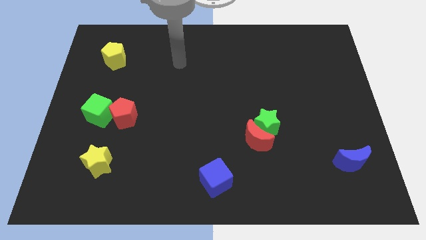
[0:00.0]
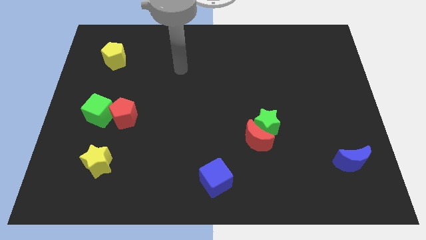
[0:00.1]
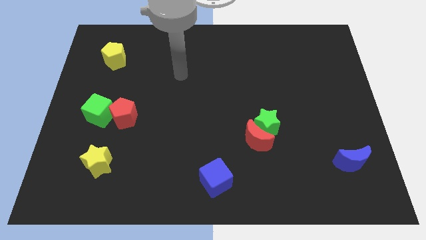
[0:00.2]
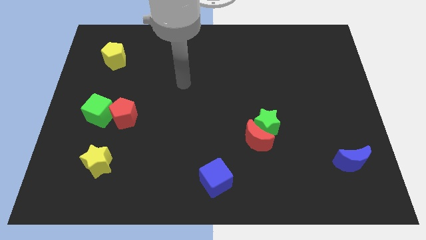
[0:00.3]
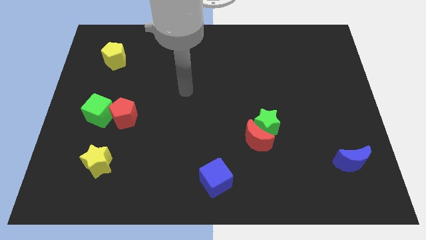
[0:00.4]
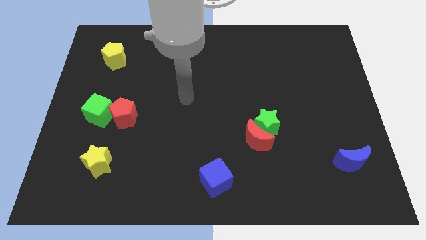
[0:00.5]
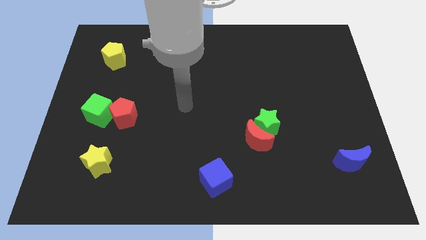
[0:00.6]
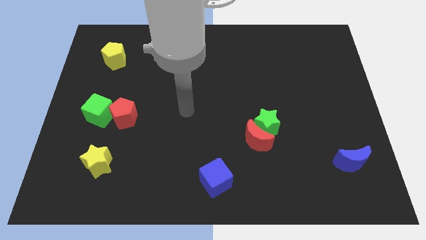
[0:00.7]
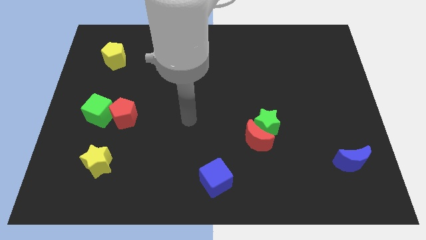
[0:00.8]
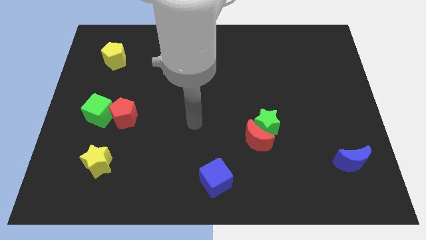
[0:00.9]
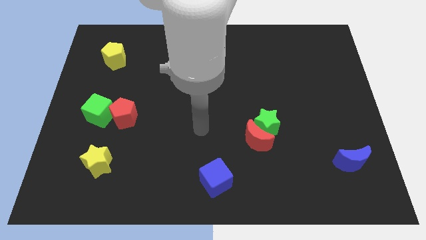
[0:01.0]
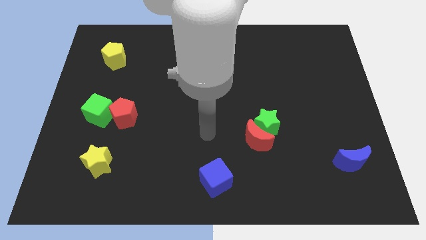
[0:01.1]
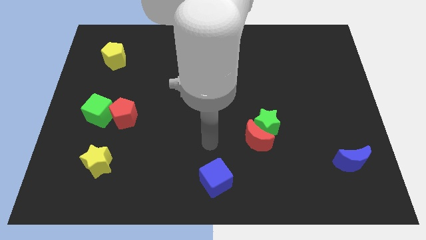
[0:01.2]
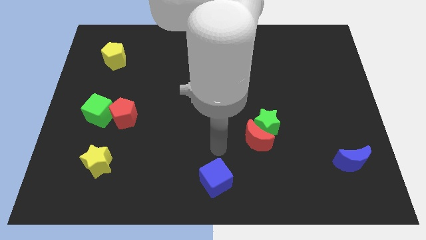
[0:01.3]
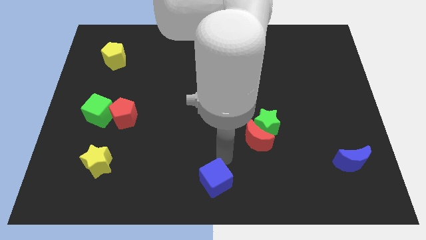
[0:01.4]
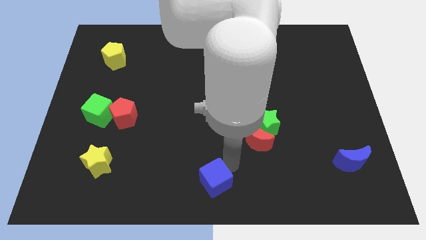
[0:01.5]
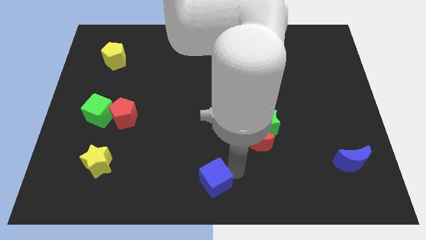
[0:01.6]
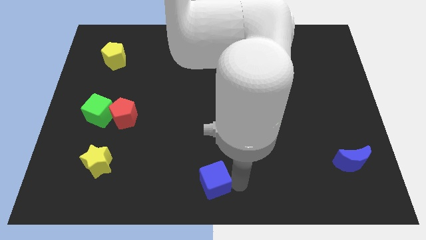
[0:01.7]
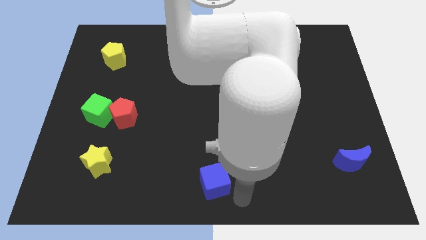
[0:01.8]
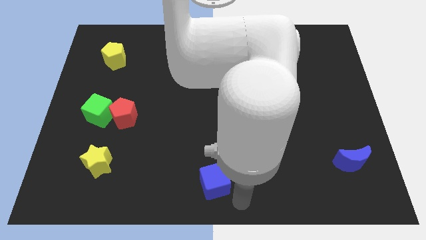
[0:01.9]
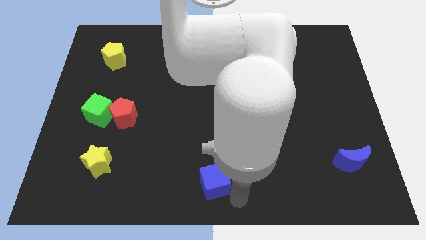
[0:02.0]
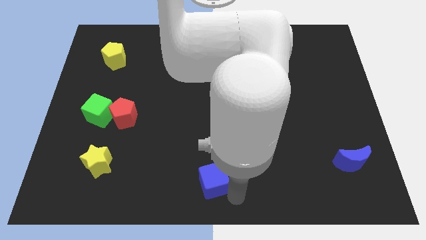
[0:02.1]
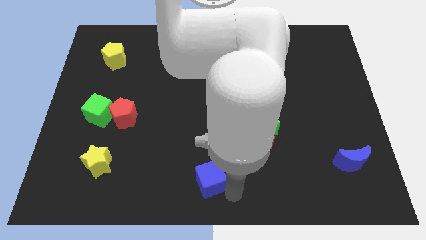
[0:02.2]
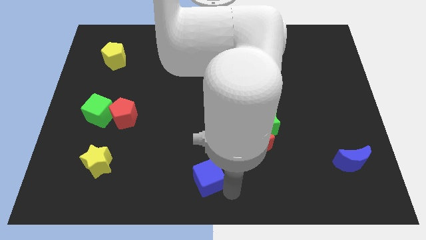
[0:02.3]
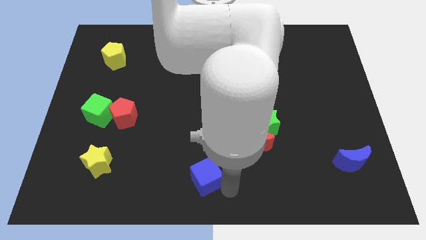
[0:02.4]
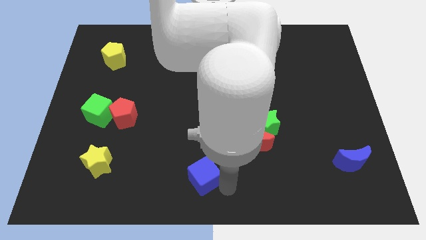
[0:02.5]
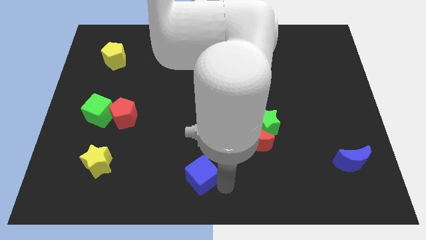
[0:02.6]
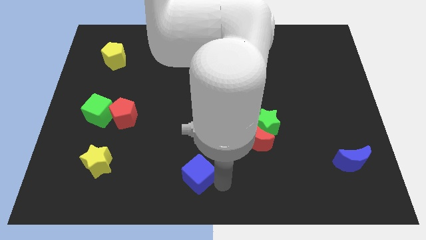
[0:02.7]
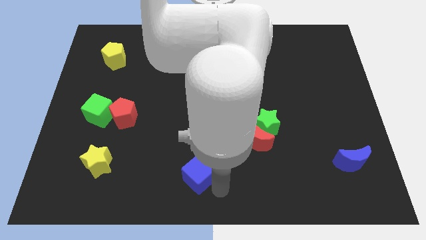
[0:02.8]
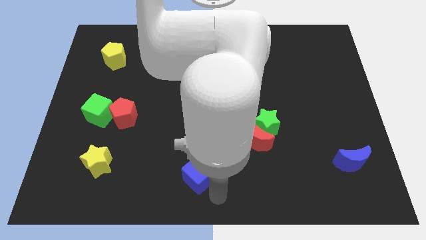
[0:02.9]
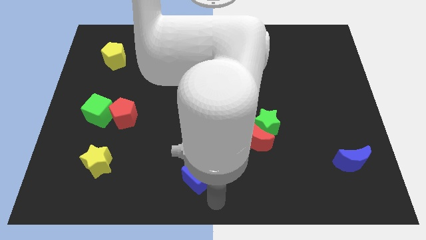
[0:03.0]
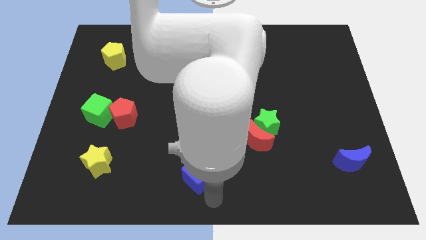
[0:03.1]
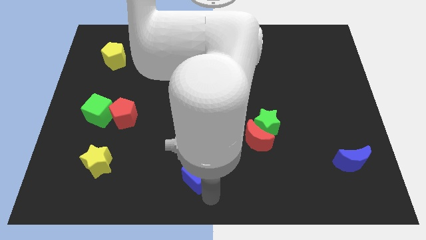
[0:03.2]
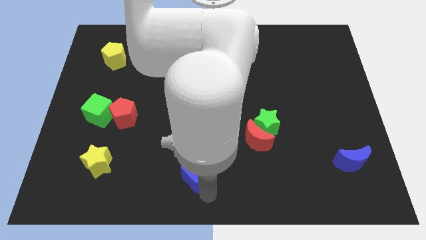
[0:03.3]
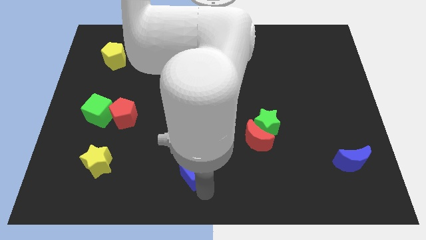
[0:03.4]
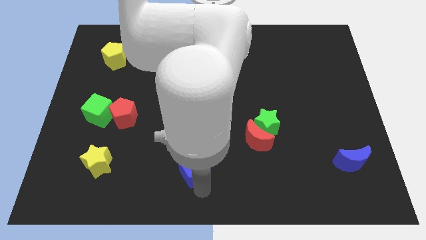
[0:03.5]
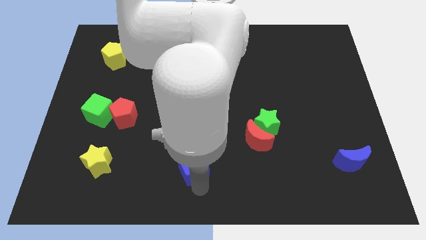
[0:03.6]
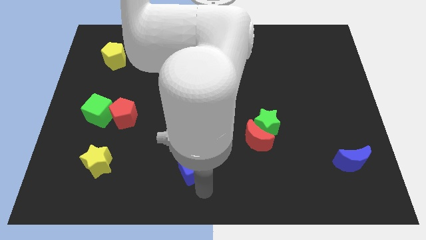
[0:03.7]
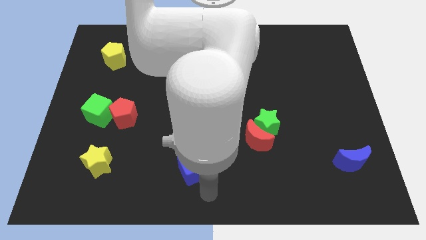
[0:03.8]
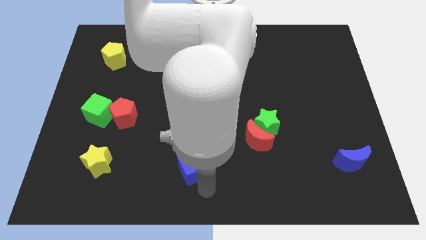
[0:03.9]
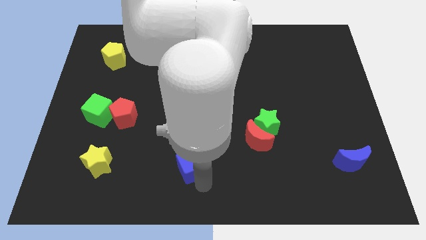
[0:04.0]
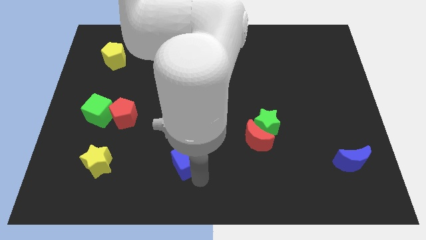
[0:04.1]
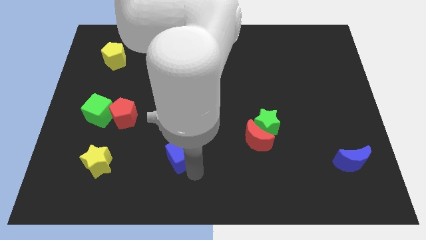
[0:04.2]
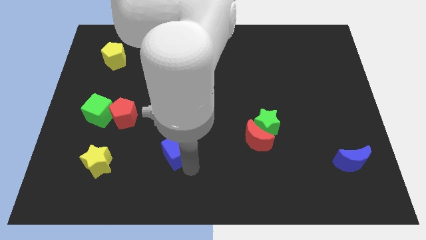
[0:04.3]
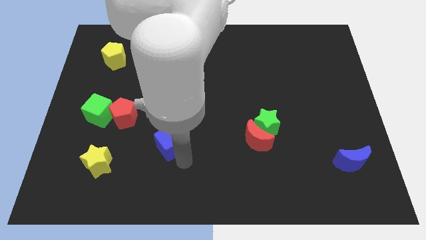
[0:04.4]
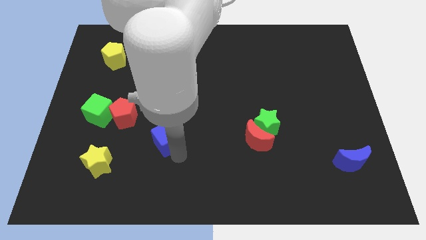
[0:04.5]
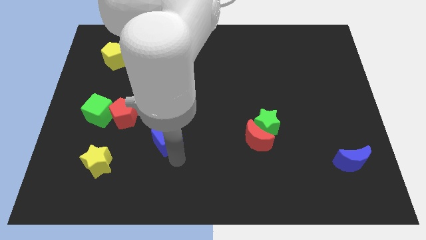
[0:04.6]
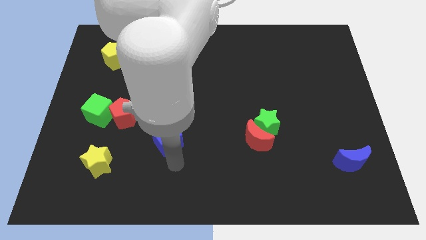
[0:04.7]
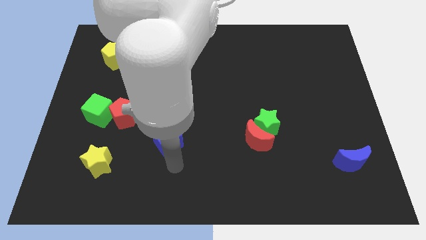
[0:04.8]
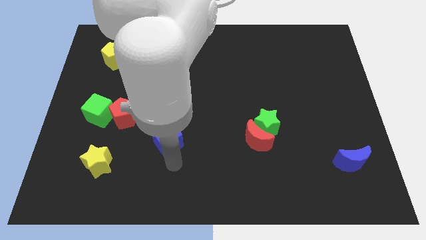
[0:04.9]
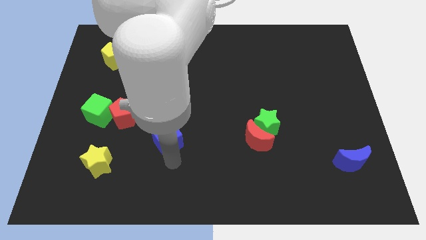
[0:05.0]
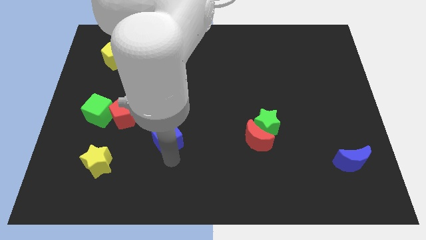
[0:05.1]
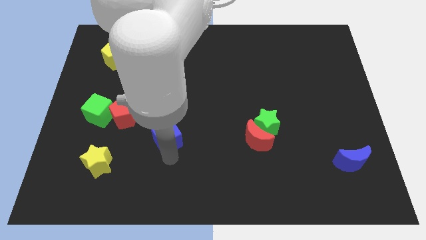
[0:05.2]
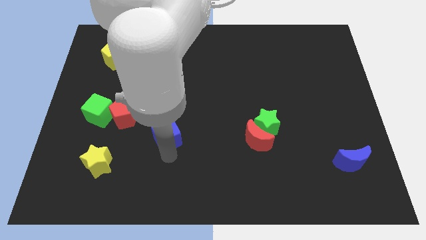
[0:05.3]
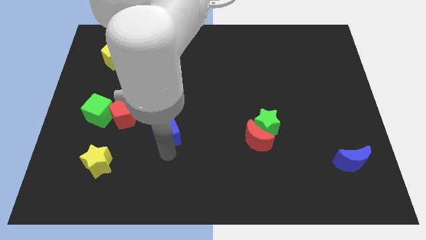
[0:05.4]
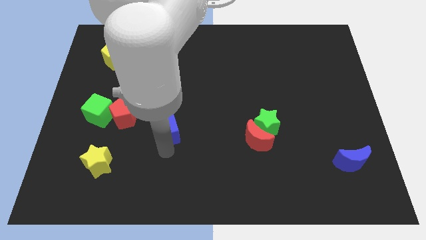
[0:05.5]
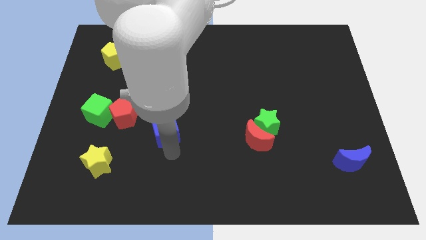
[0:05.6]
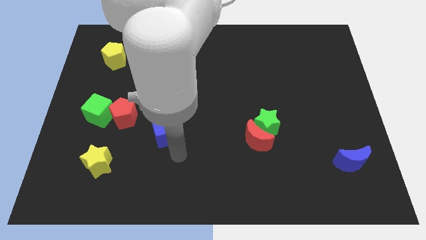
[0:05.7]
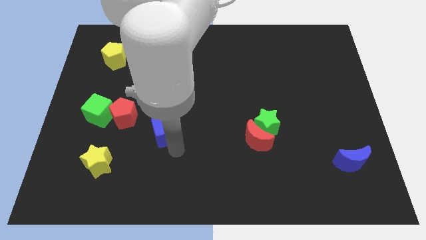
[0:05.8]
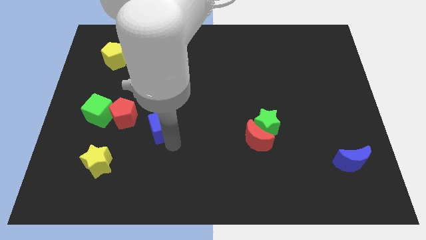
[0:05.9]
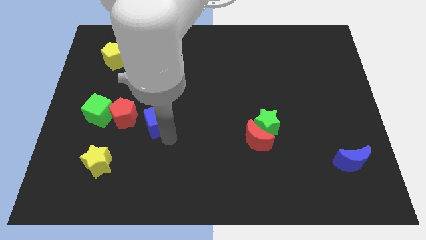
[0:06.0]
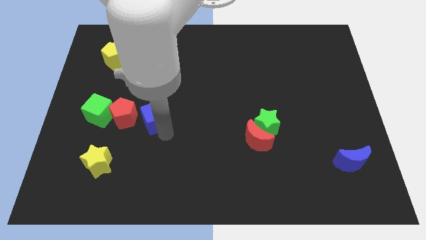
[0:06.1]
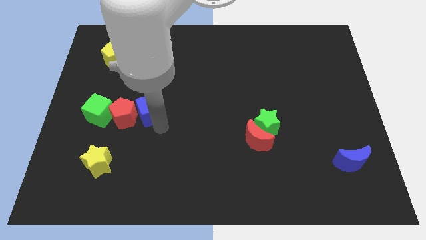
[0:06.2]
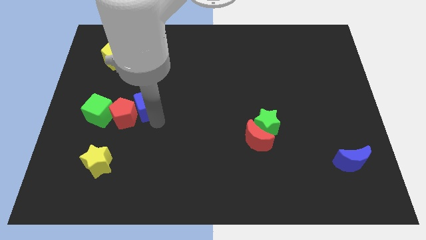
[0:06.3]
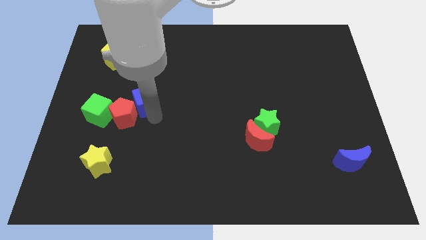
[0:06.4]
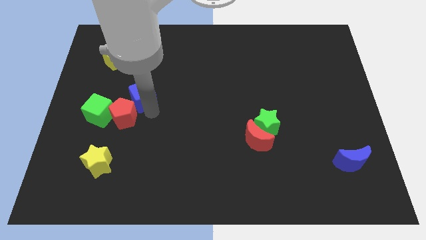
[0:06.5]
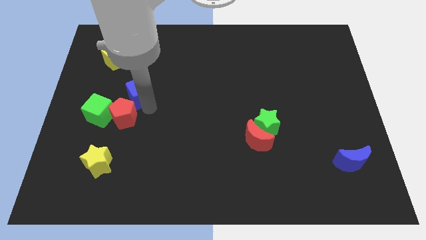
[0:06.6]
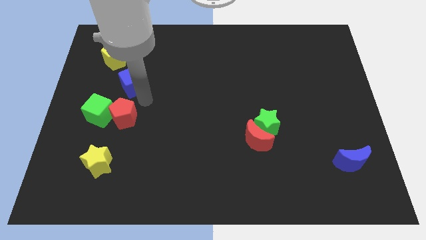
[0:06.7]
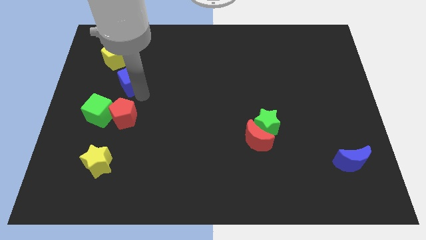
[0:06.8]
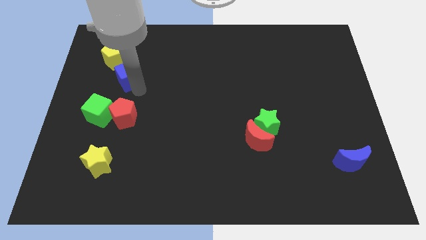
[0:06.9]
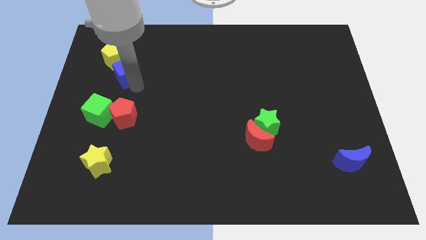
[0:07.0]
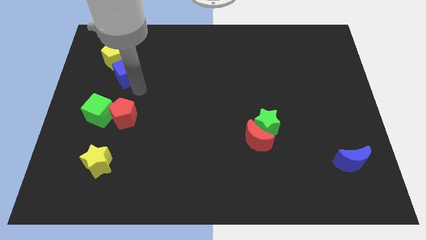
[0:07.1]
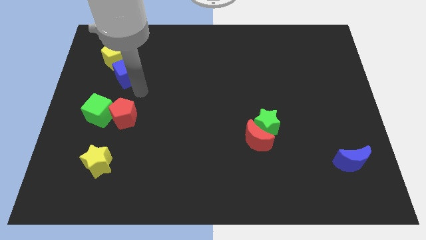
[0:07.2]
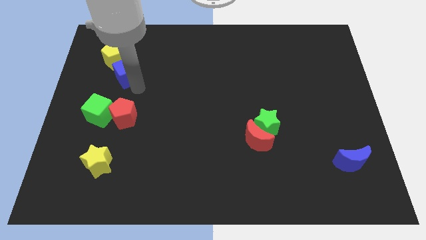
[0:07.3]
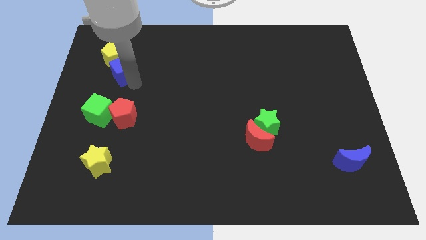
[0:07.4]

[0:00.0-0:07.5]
put the blue cube close to the yellow pentagon
